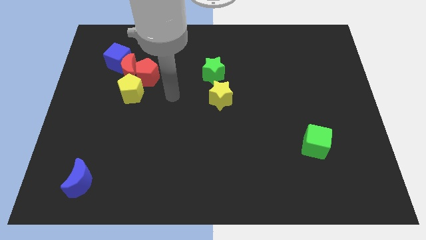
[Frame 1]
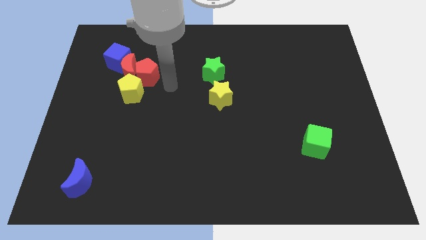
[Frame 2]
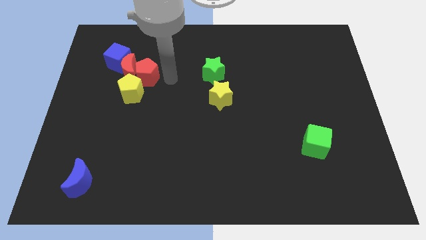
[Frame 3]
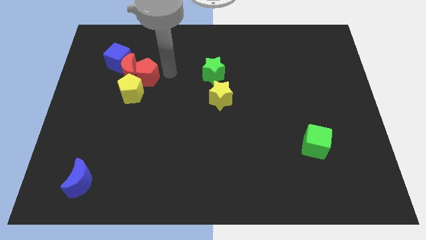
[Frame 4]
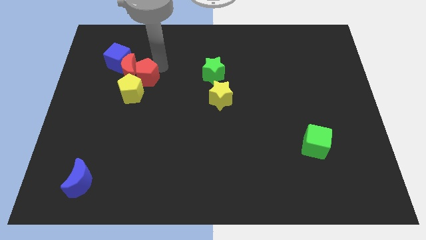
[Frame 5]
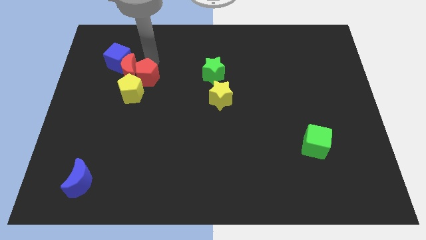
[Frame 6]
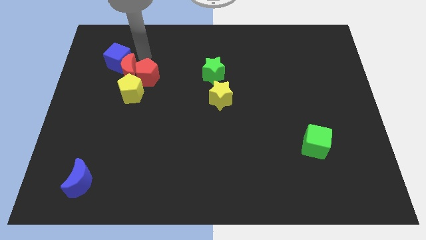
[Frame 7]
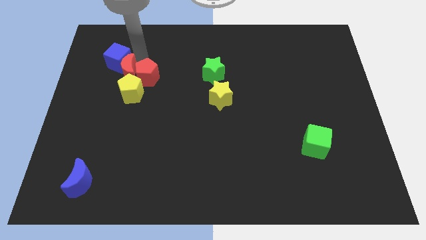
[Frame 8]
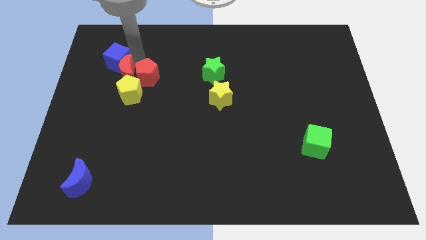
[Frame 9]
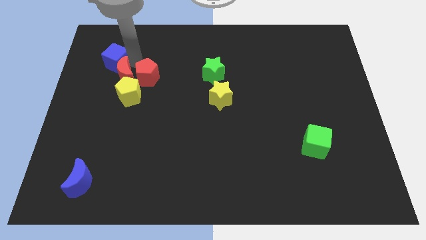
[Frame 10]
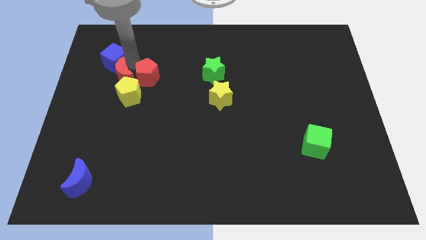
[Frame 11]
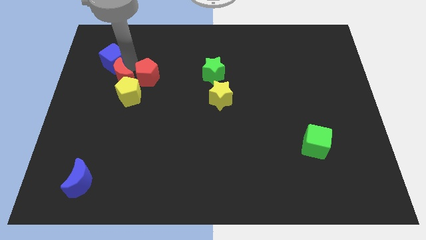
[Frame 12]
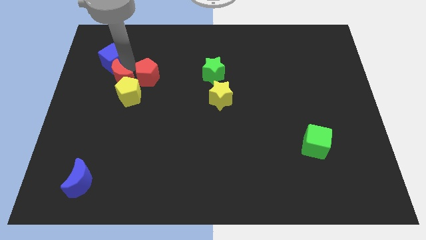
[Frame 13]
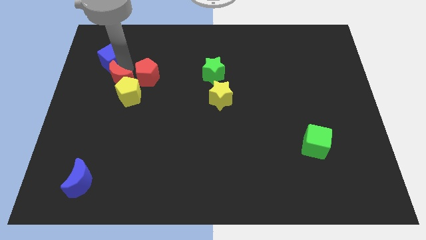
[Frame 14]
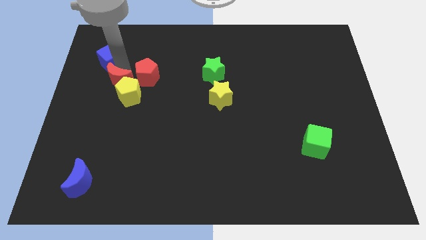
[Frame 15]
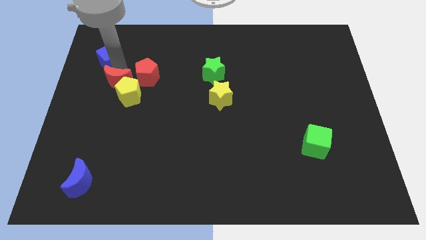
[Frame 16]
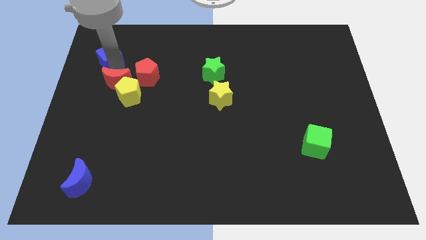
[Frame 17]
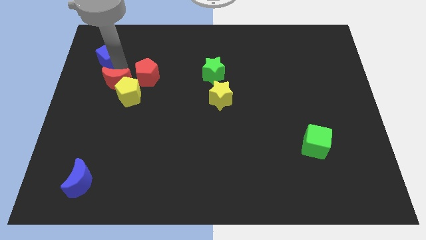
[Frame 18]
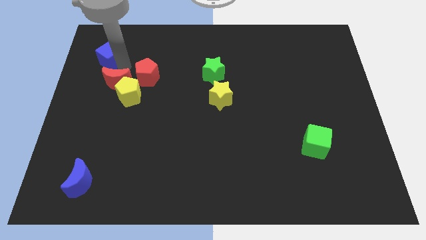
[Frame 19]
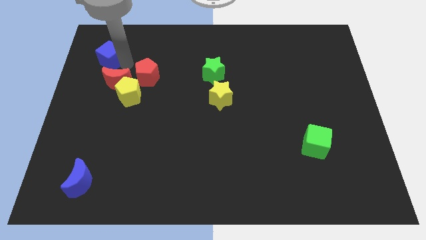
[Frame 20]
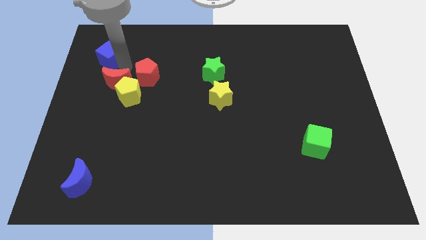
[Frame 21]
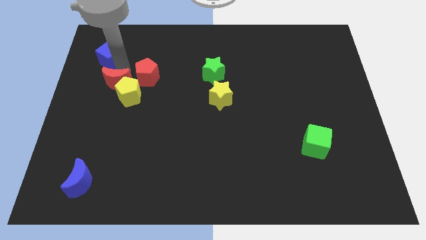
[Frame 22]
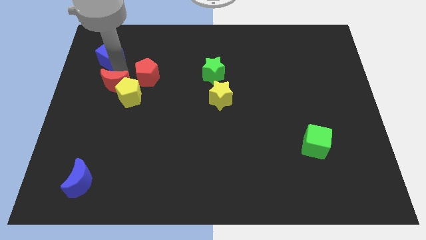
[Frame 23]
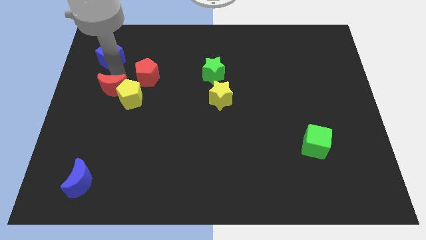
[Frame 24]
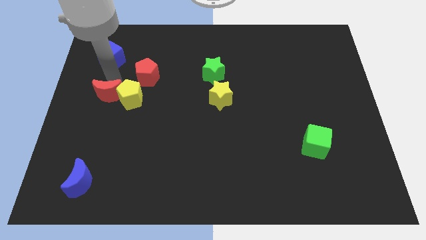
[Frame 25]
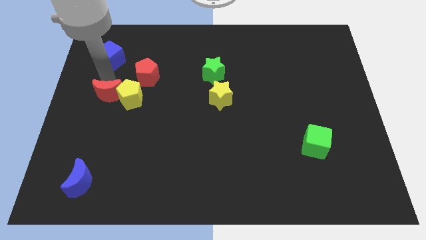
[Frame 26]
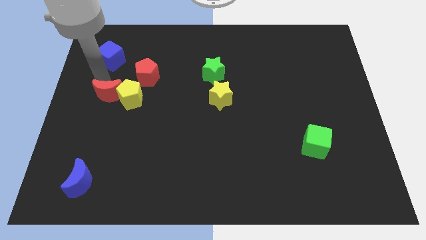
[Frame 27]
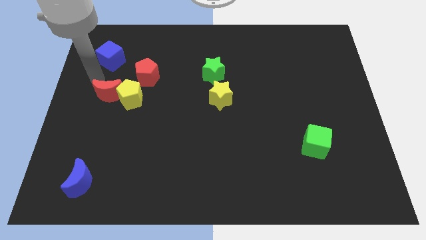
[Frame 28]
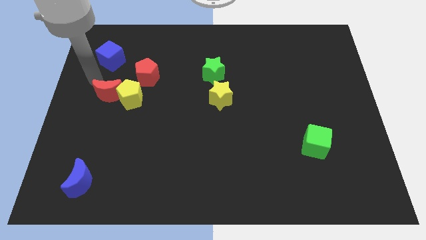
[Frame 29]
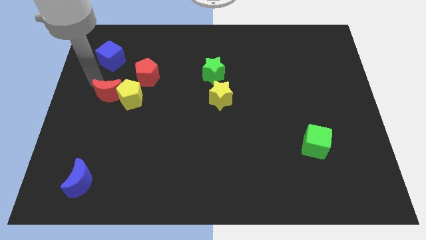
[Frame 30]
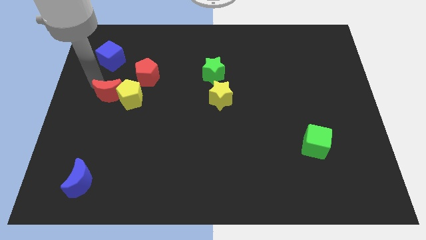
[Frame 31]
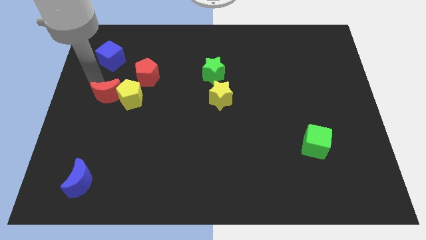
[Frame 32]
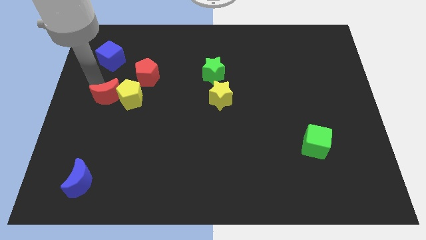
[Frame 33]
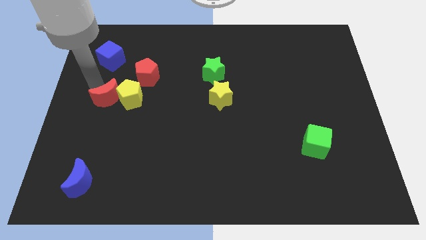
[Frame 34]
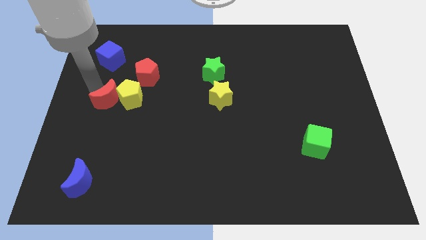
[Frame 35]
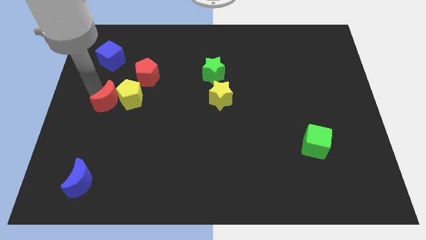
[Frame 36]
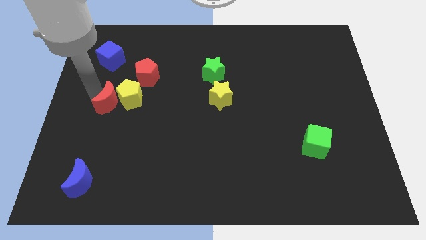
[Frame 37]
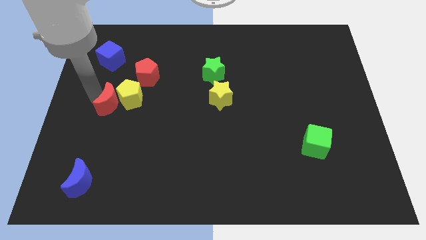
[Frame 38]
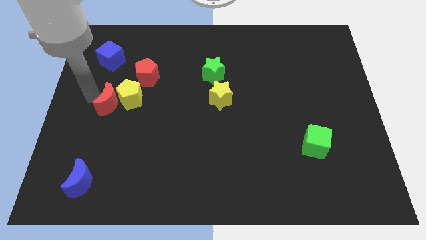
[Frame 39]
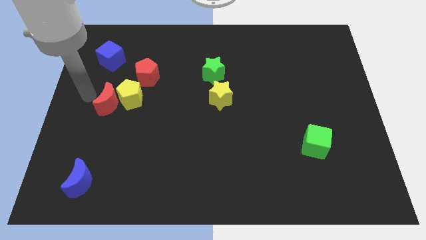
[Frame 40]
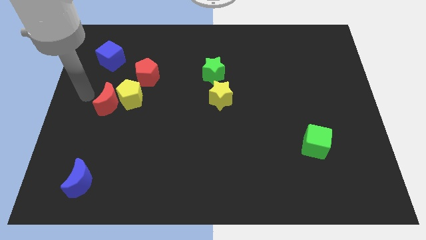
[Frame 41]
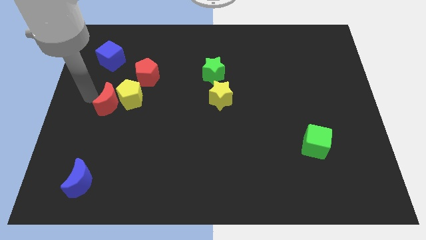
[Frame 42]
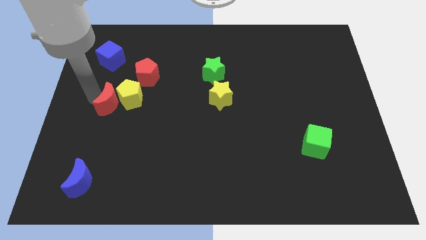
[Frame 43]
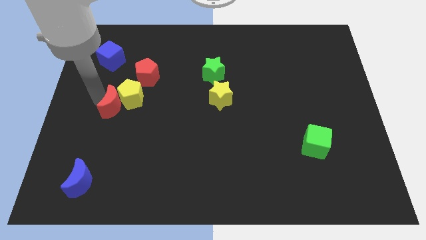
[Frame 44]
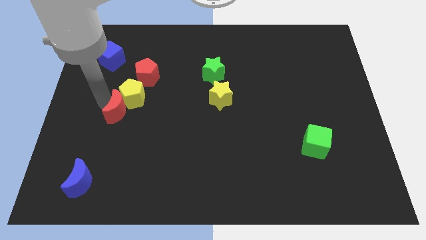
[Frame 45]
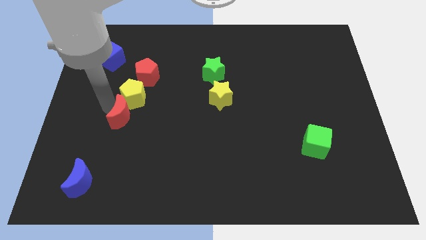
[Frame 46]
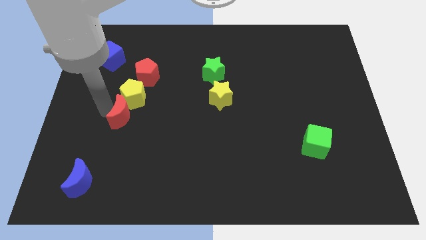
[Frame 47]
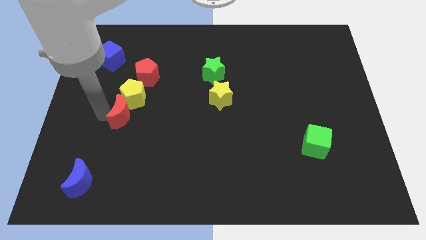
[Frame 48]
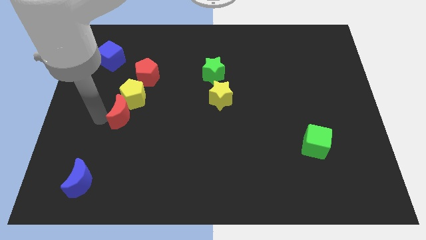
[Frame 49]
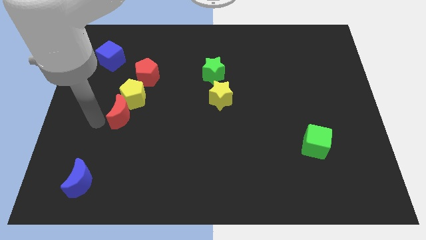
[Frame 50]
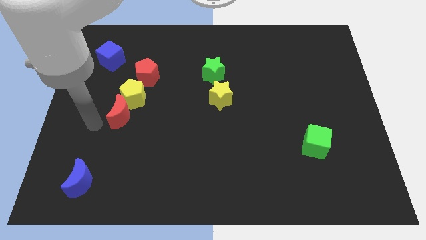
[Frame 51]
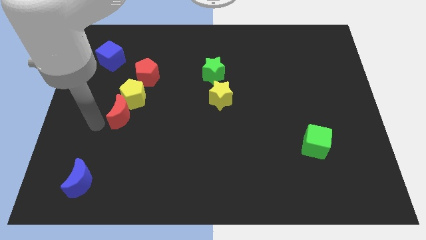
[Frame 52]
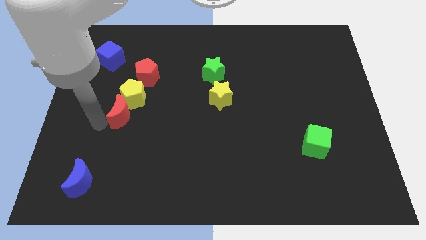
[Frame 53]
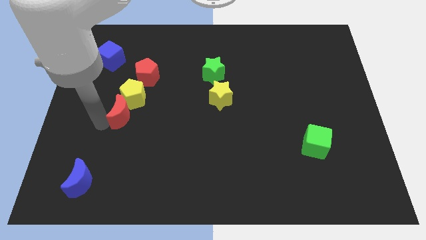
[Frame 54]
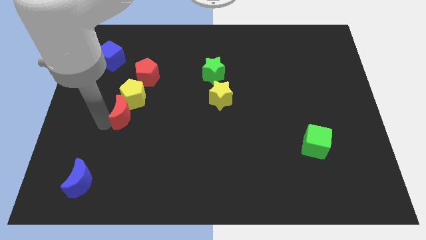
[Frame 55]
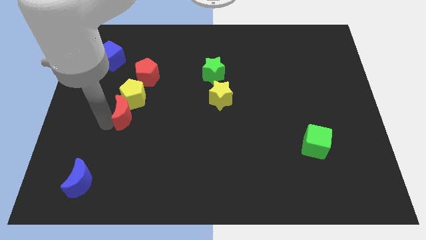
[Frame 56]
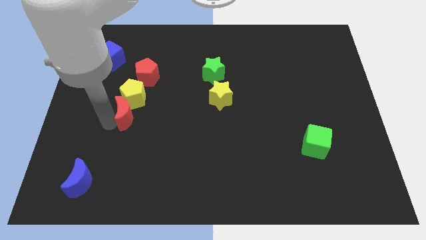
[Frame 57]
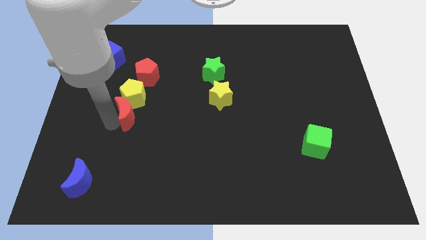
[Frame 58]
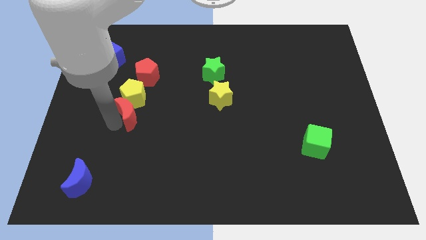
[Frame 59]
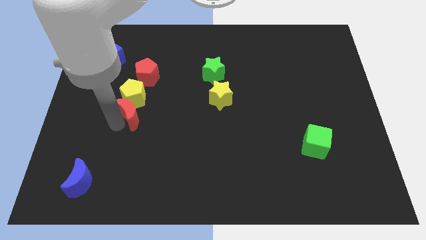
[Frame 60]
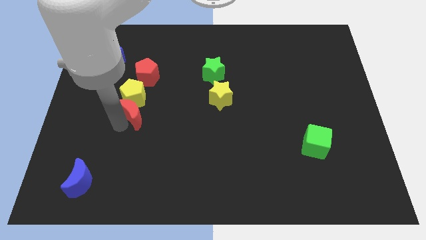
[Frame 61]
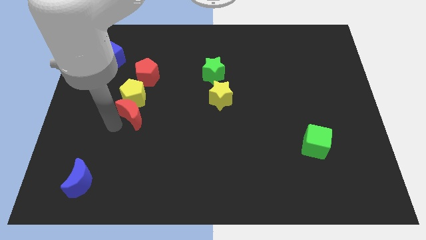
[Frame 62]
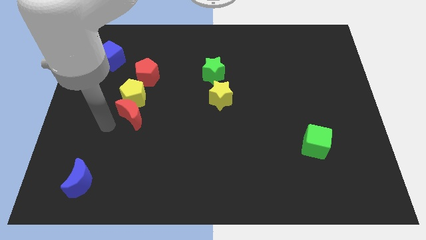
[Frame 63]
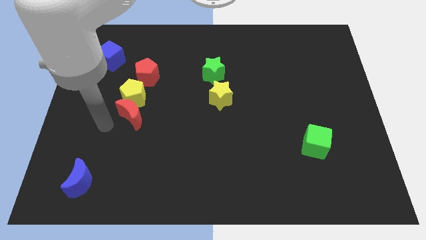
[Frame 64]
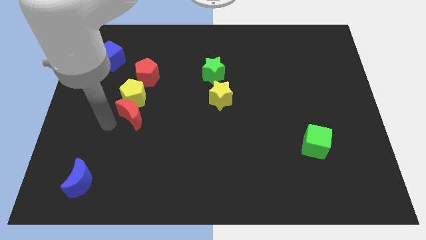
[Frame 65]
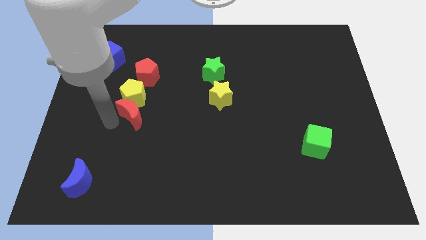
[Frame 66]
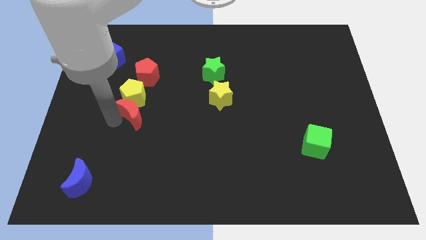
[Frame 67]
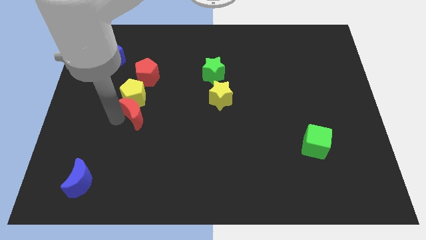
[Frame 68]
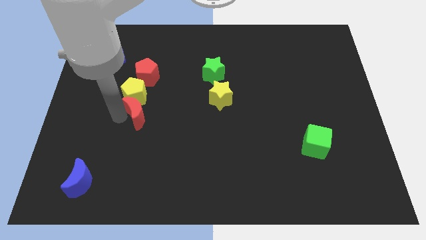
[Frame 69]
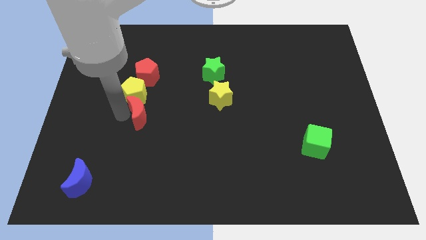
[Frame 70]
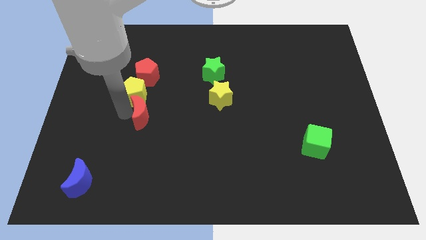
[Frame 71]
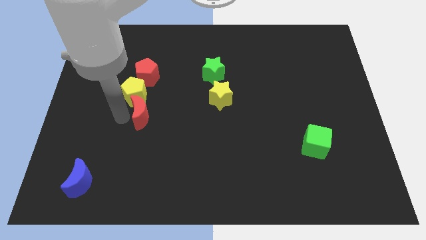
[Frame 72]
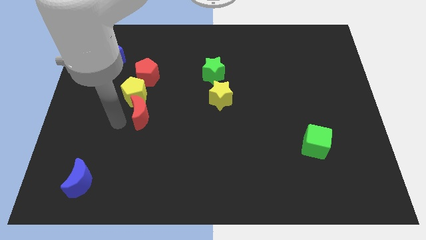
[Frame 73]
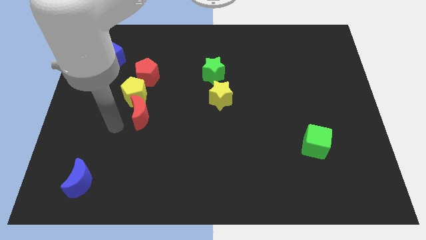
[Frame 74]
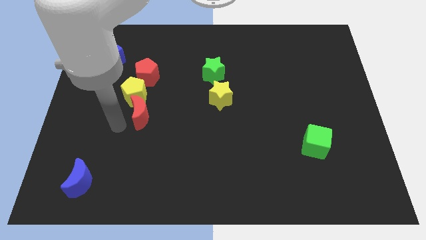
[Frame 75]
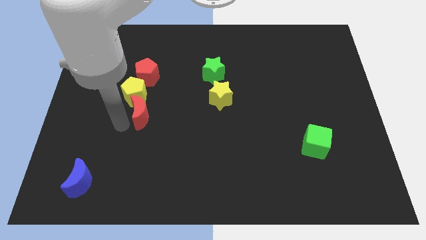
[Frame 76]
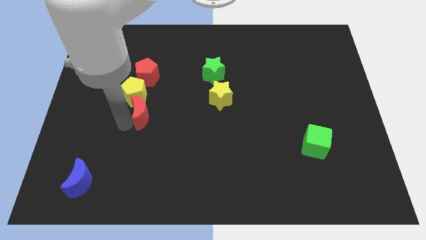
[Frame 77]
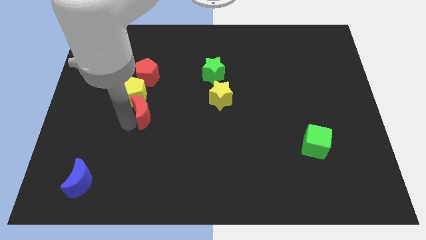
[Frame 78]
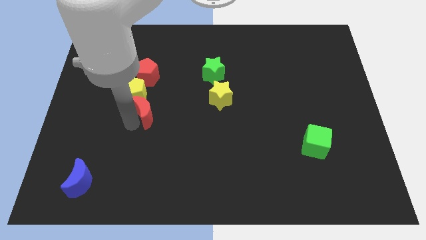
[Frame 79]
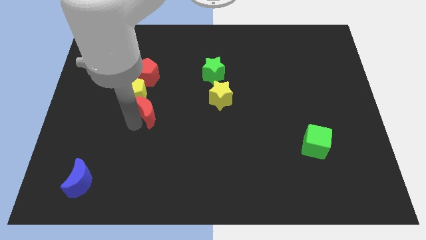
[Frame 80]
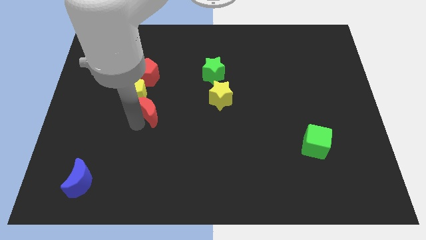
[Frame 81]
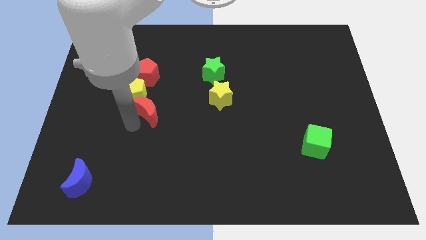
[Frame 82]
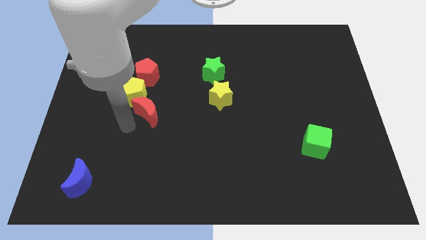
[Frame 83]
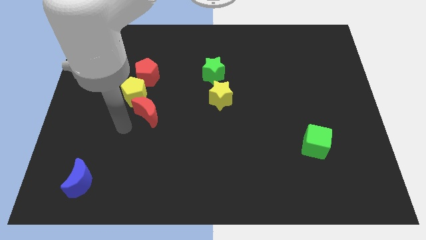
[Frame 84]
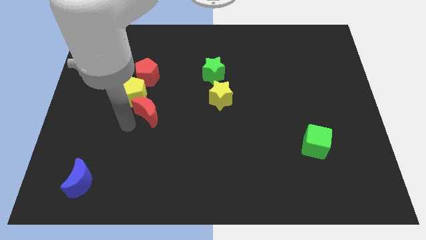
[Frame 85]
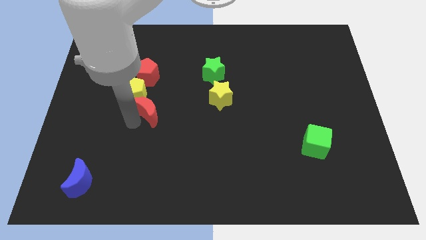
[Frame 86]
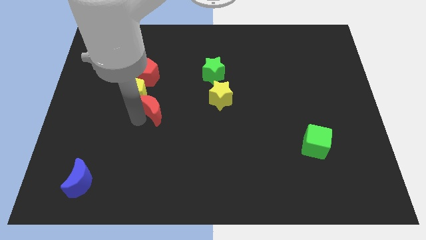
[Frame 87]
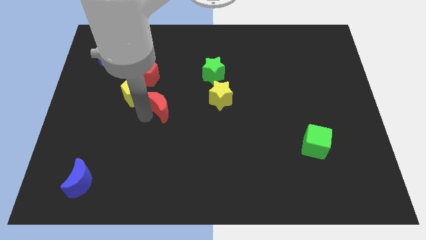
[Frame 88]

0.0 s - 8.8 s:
put the red moon to the left side of the yellow star
